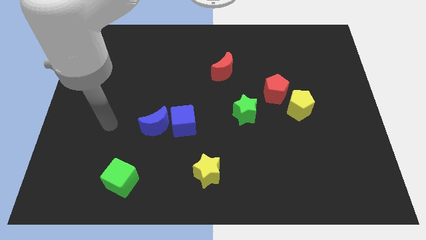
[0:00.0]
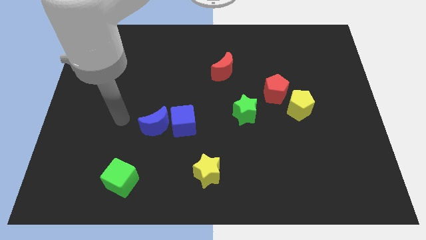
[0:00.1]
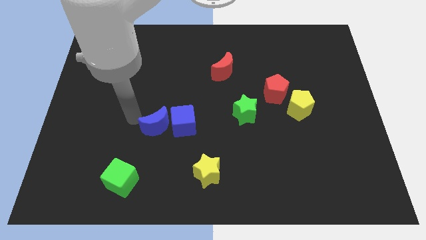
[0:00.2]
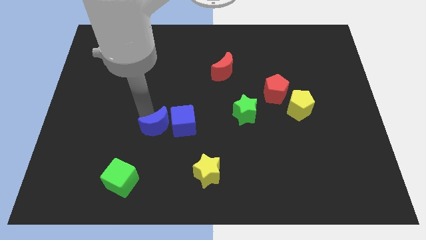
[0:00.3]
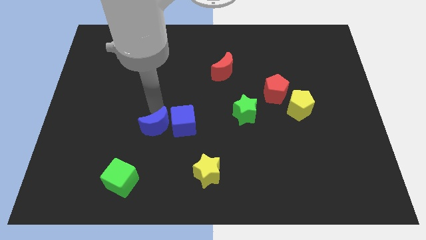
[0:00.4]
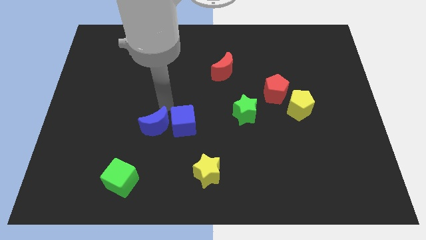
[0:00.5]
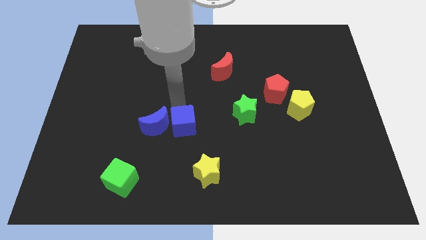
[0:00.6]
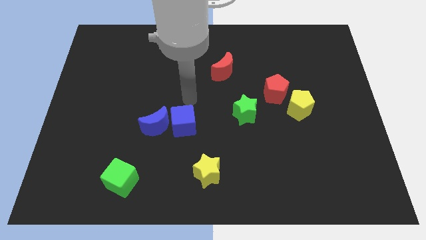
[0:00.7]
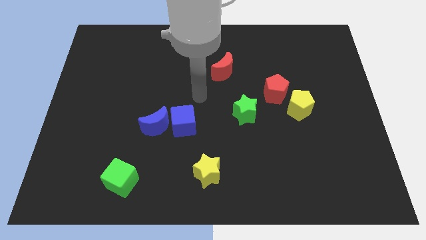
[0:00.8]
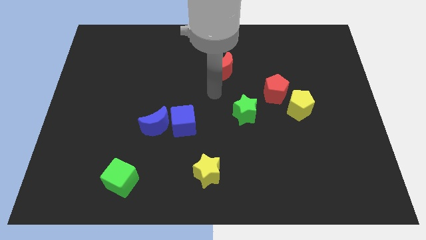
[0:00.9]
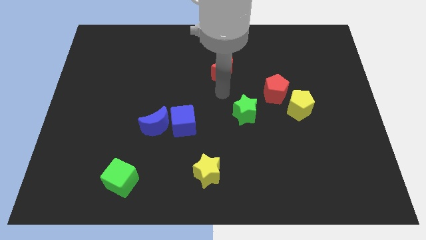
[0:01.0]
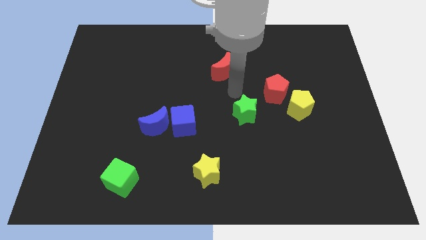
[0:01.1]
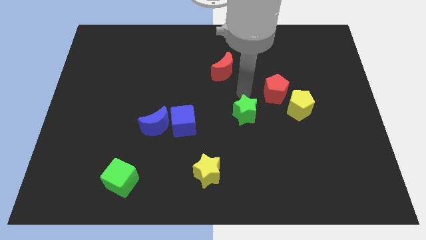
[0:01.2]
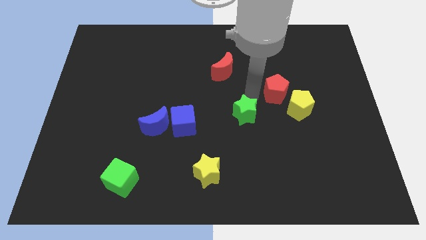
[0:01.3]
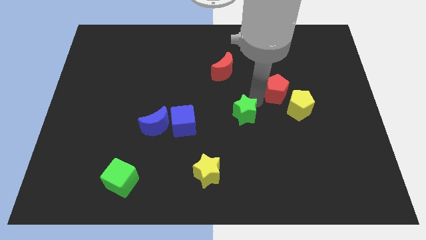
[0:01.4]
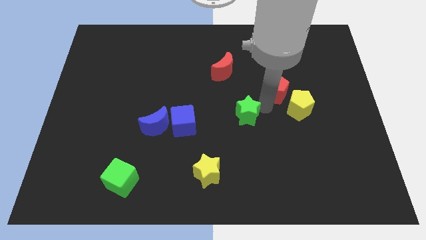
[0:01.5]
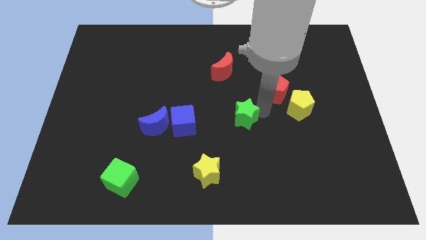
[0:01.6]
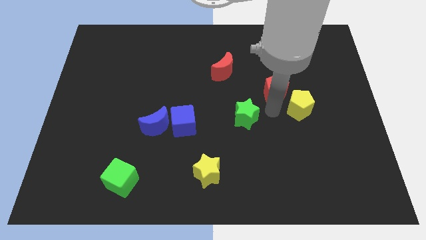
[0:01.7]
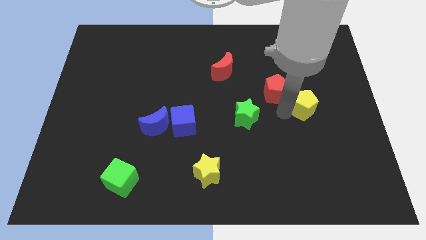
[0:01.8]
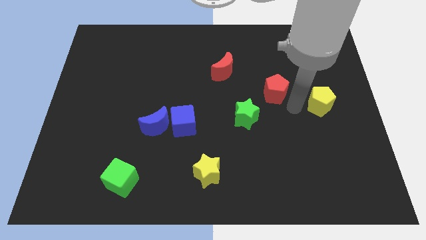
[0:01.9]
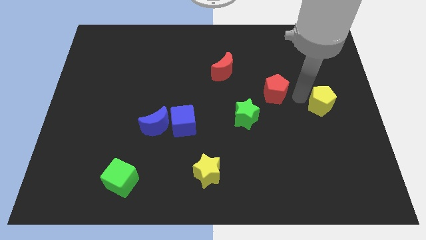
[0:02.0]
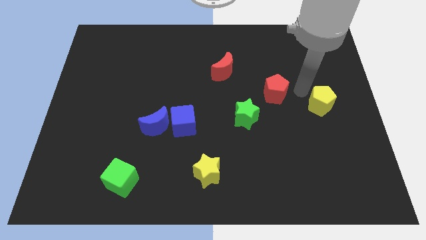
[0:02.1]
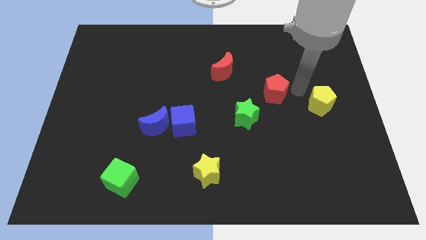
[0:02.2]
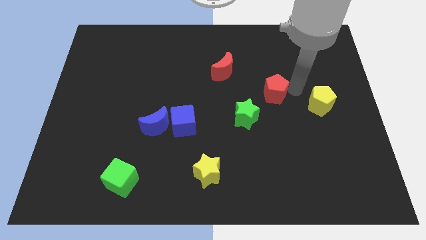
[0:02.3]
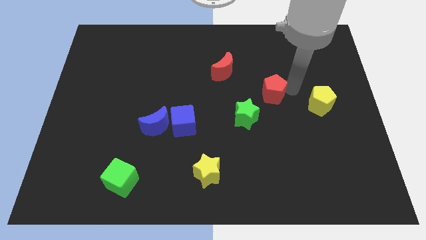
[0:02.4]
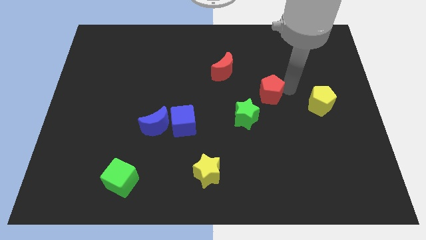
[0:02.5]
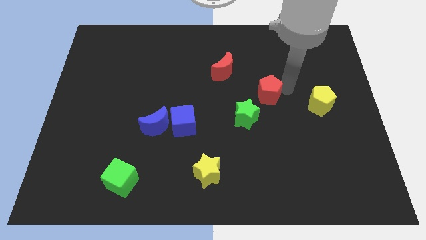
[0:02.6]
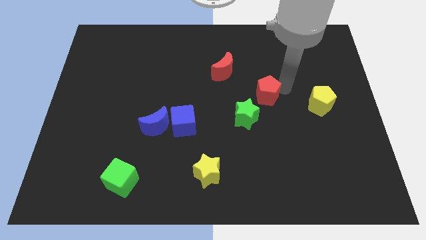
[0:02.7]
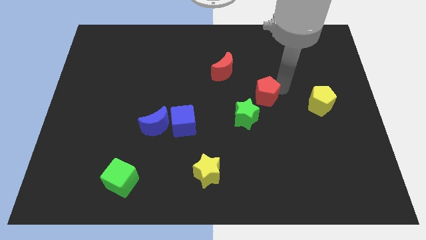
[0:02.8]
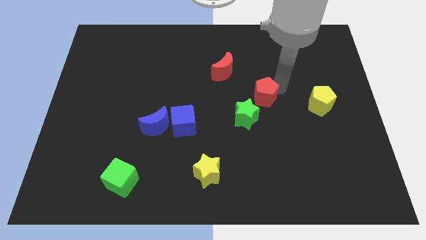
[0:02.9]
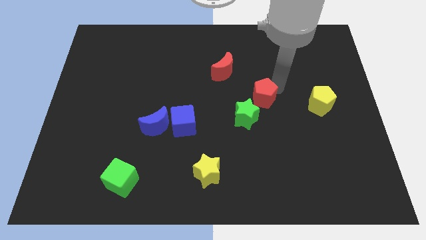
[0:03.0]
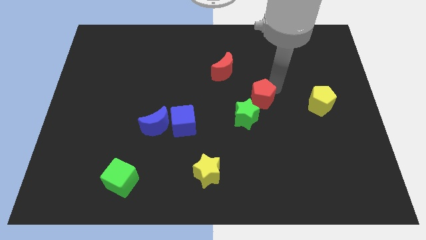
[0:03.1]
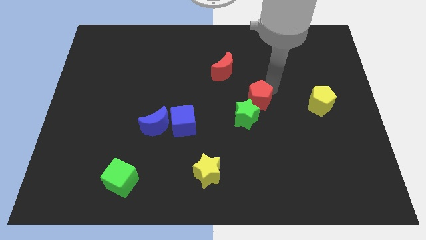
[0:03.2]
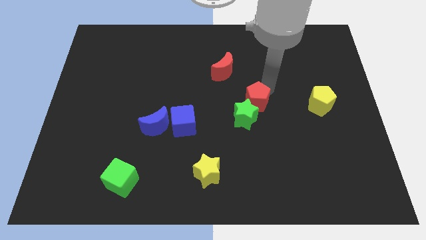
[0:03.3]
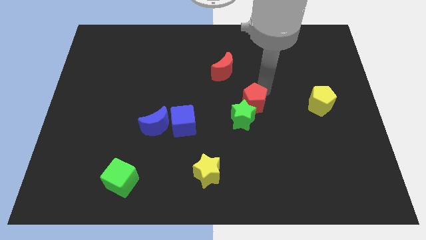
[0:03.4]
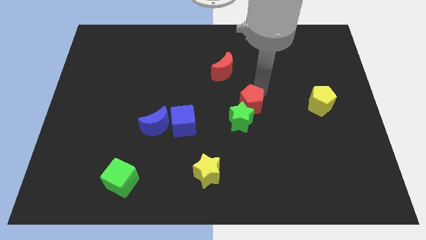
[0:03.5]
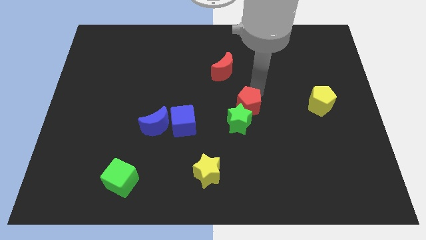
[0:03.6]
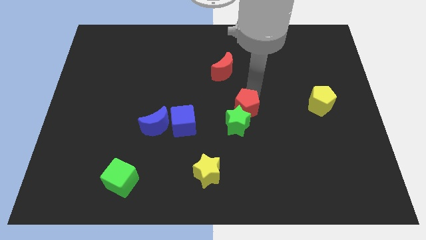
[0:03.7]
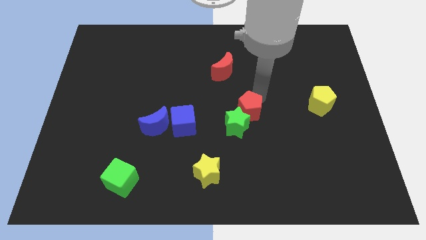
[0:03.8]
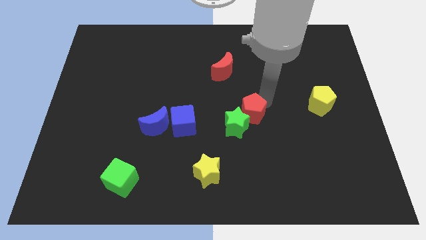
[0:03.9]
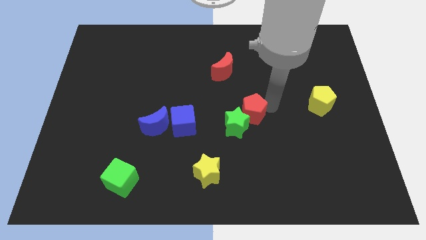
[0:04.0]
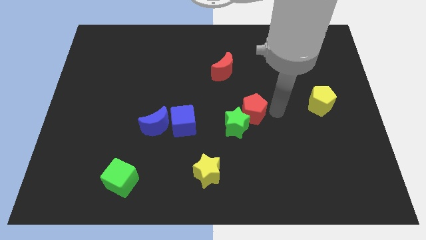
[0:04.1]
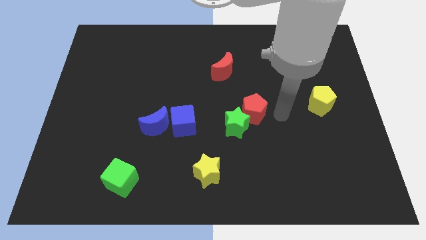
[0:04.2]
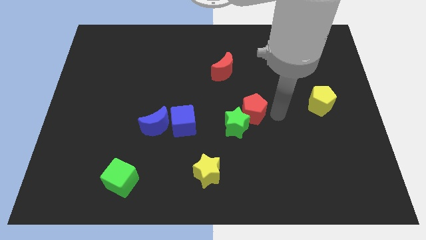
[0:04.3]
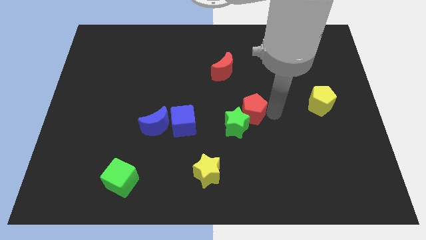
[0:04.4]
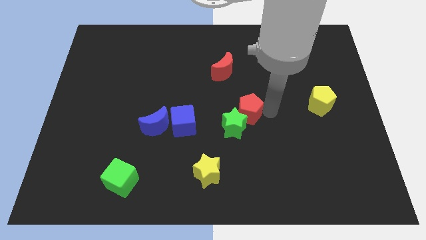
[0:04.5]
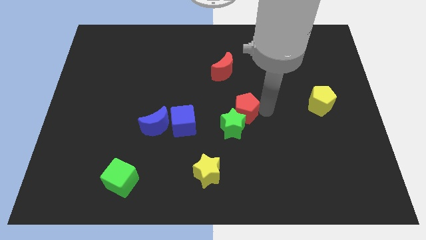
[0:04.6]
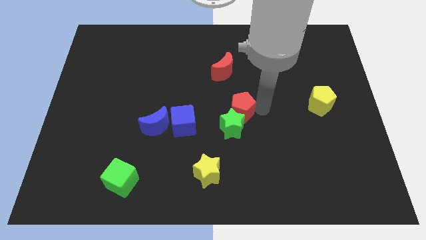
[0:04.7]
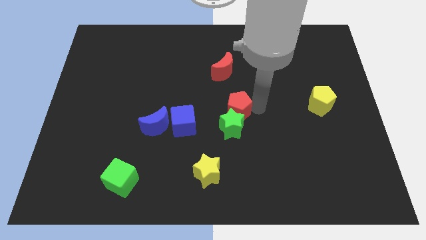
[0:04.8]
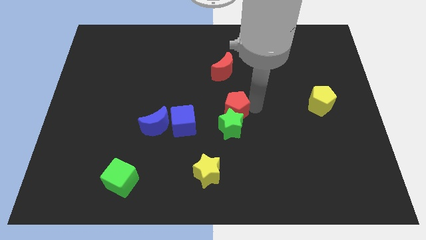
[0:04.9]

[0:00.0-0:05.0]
put the red pentagon diagonally up and to the left of the green star

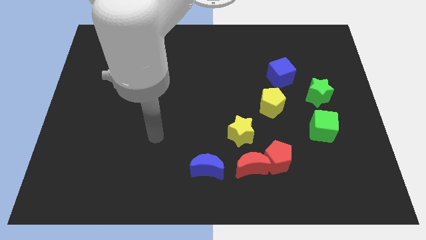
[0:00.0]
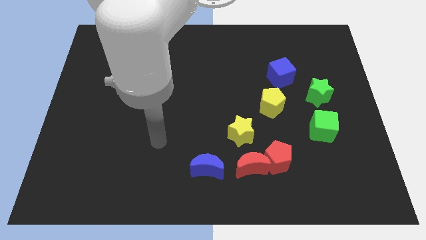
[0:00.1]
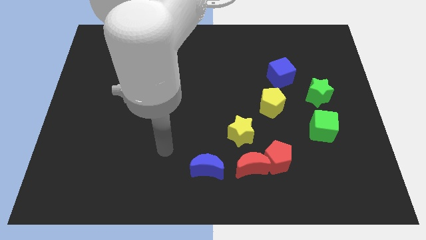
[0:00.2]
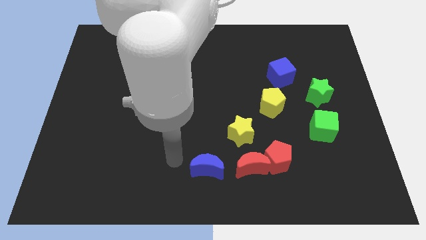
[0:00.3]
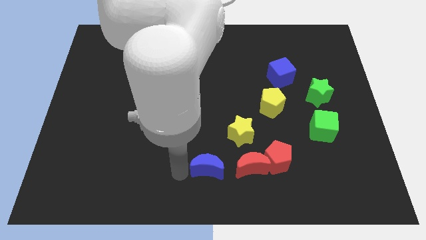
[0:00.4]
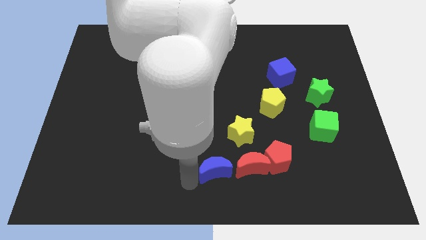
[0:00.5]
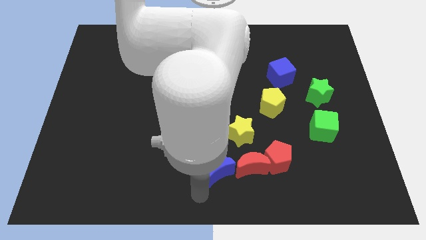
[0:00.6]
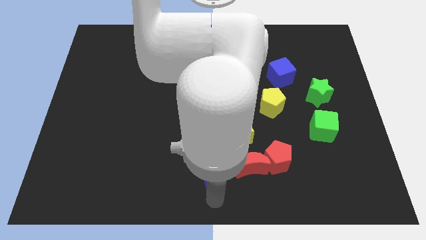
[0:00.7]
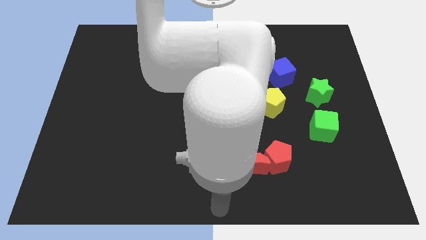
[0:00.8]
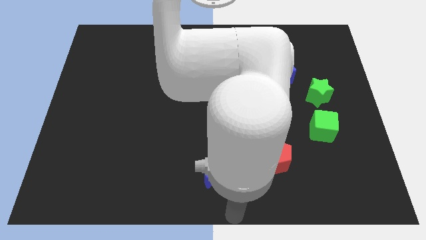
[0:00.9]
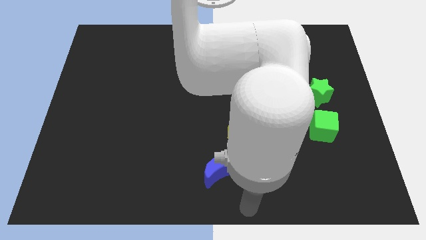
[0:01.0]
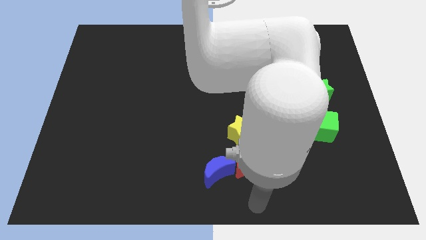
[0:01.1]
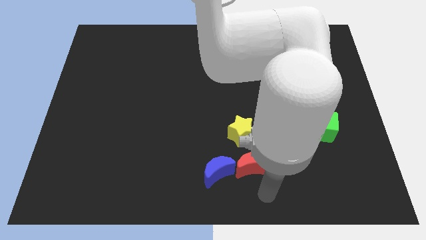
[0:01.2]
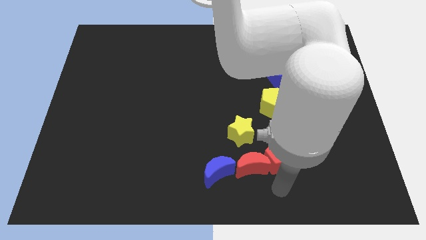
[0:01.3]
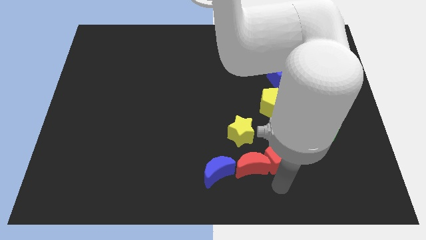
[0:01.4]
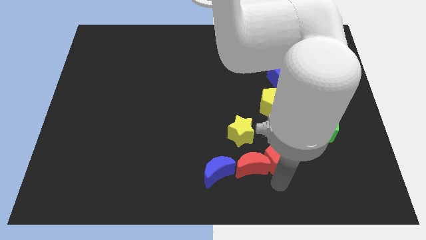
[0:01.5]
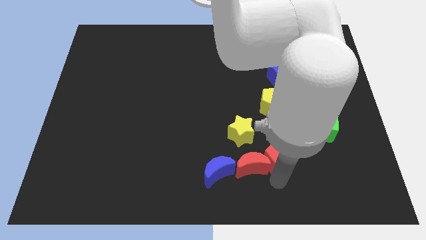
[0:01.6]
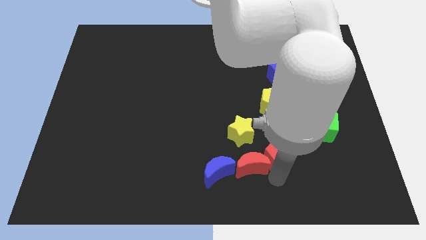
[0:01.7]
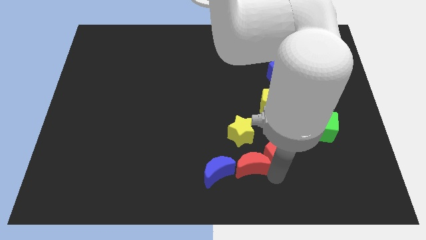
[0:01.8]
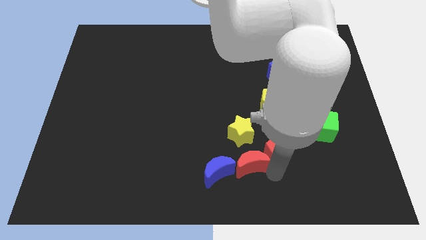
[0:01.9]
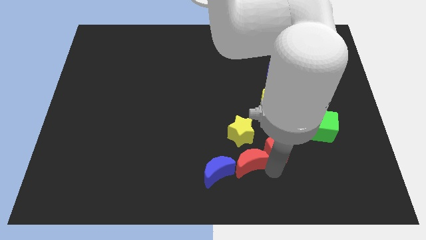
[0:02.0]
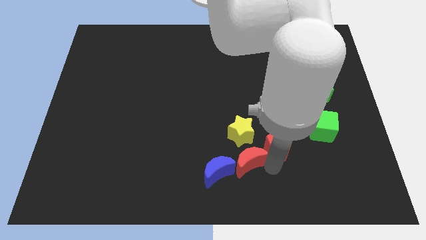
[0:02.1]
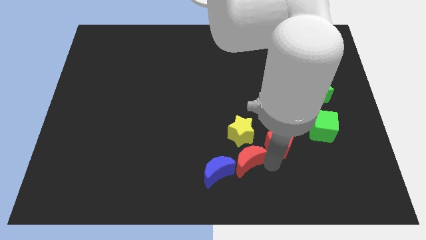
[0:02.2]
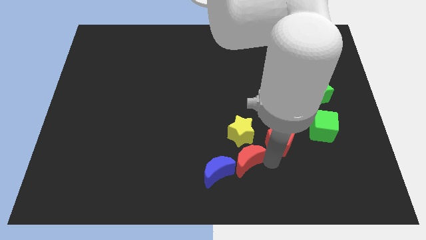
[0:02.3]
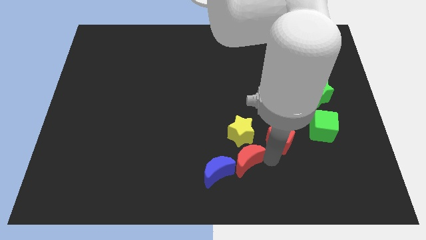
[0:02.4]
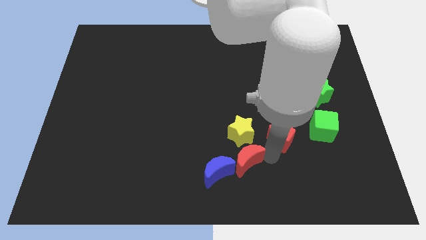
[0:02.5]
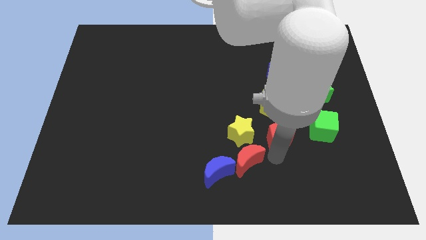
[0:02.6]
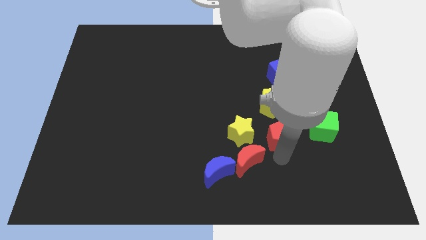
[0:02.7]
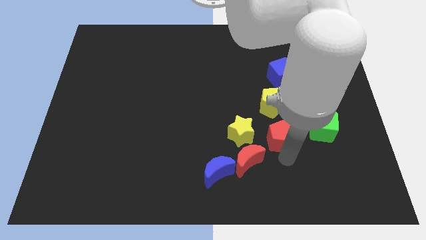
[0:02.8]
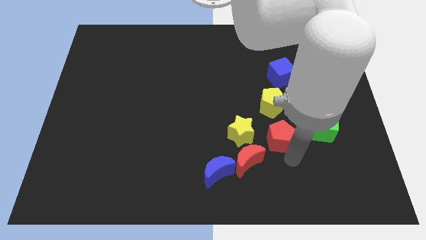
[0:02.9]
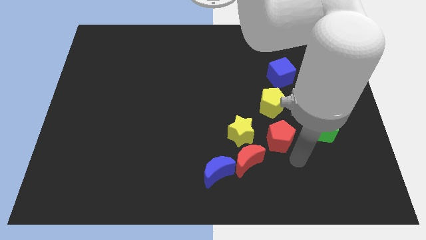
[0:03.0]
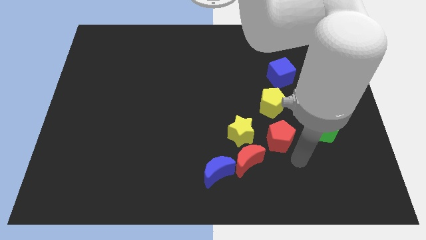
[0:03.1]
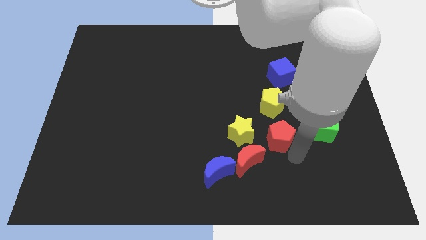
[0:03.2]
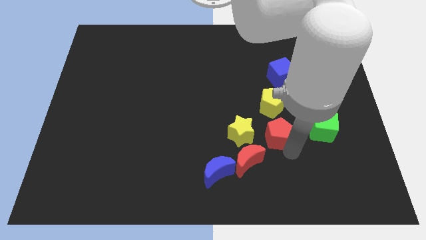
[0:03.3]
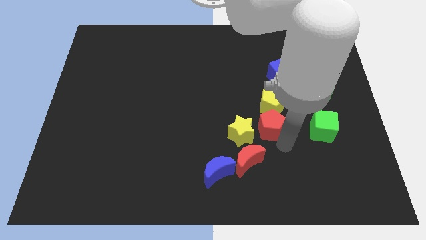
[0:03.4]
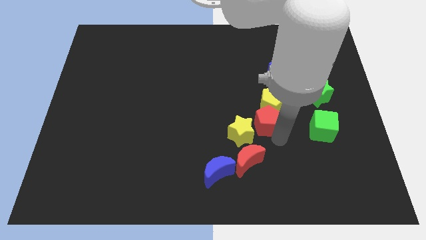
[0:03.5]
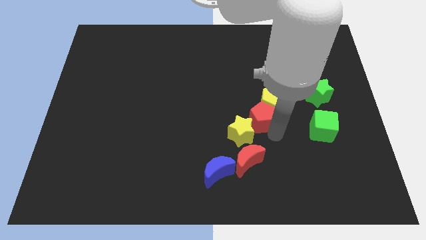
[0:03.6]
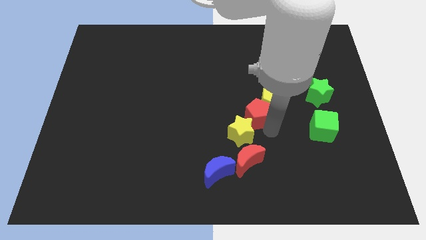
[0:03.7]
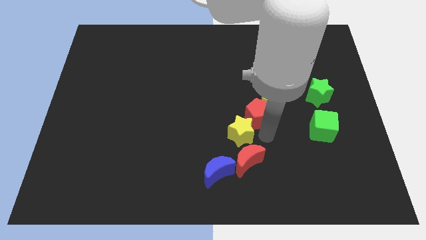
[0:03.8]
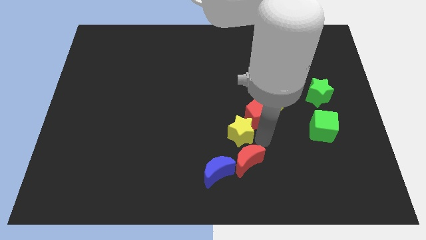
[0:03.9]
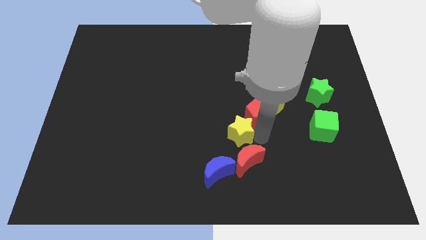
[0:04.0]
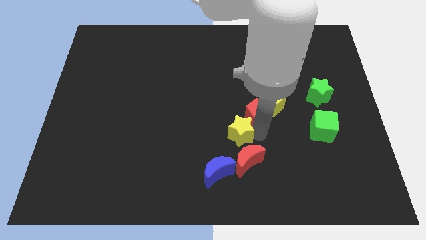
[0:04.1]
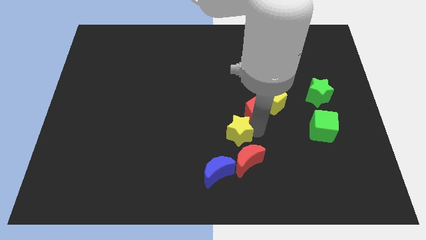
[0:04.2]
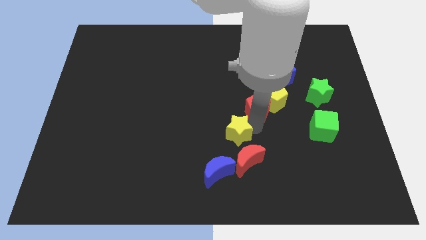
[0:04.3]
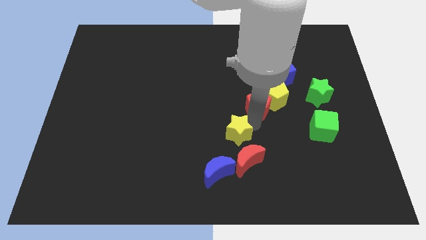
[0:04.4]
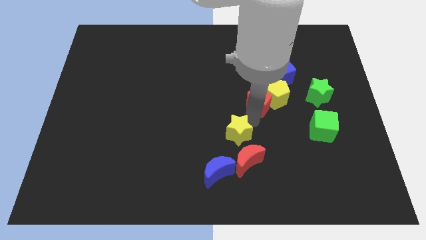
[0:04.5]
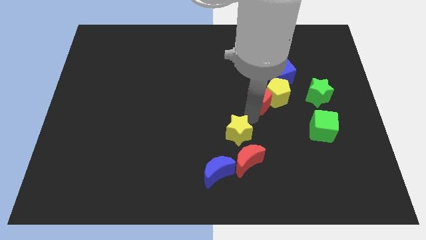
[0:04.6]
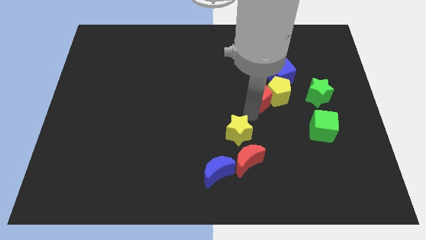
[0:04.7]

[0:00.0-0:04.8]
push the red pentagon diagonally up and to the left of the yellow pentagon
